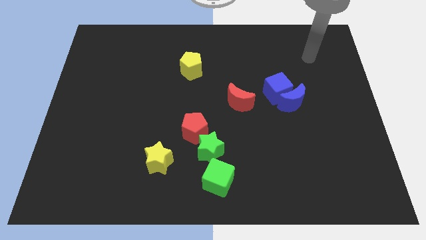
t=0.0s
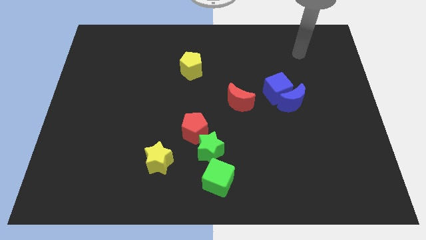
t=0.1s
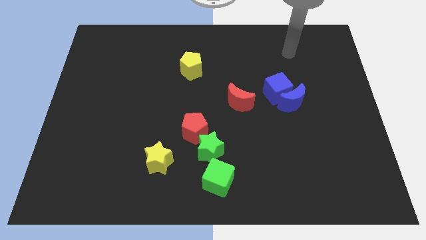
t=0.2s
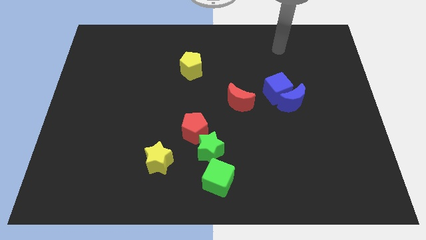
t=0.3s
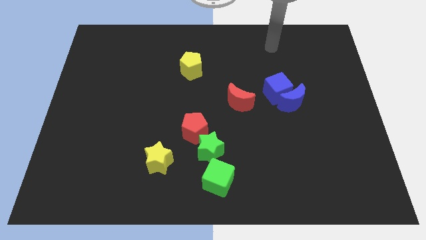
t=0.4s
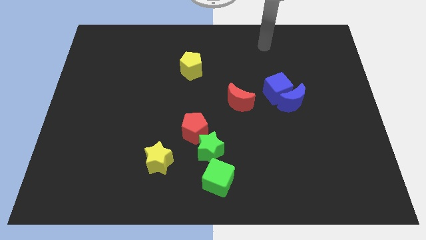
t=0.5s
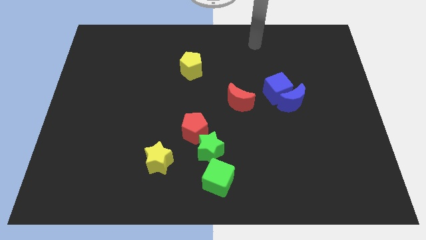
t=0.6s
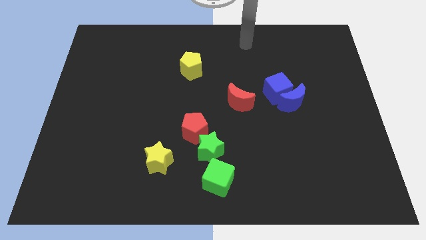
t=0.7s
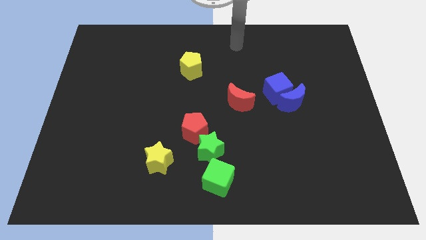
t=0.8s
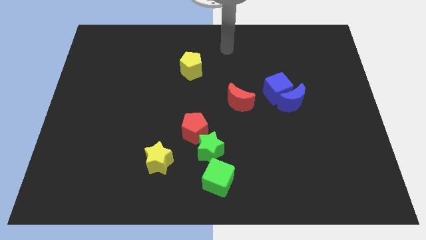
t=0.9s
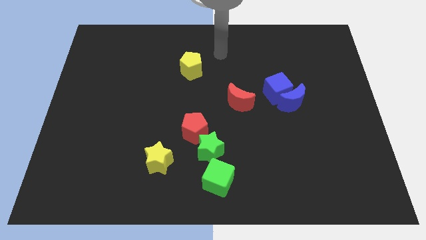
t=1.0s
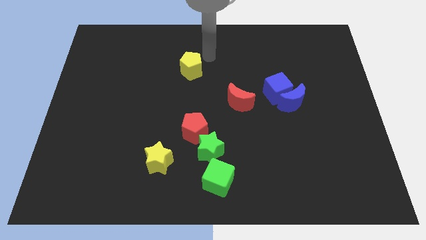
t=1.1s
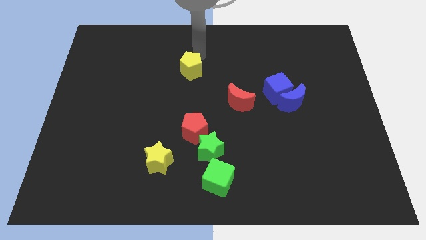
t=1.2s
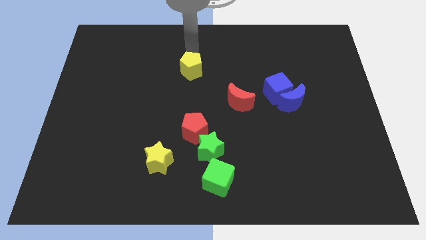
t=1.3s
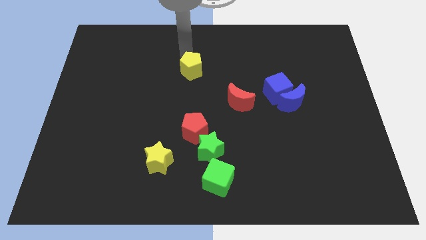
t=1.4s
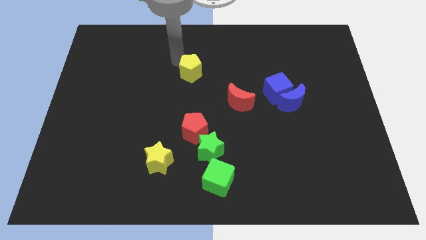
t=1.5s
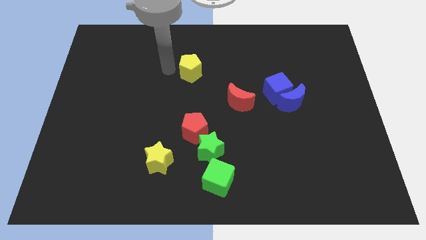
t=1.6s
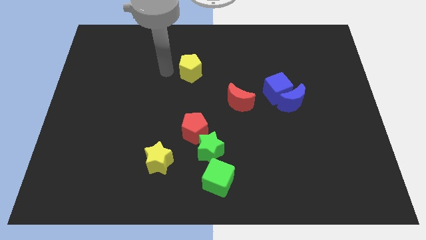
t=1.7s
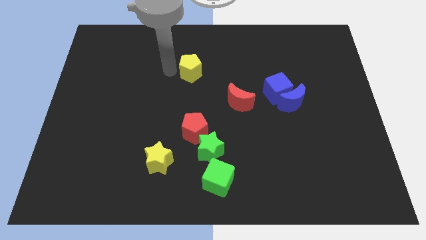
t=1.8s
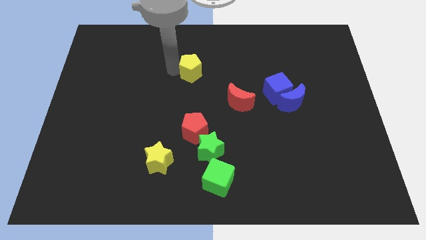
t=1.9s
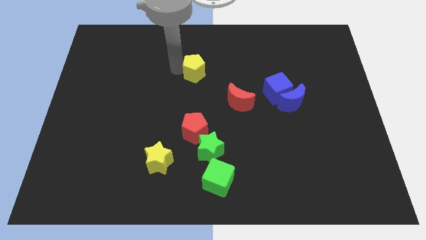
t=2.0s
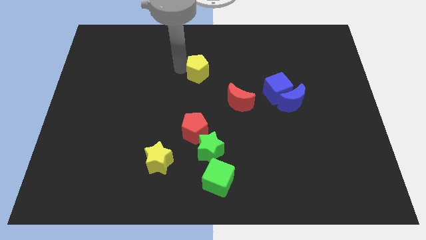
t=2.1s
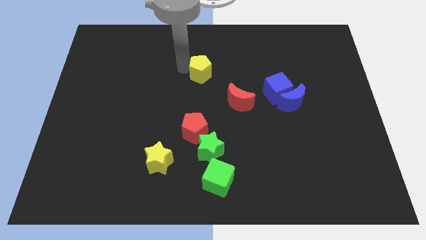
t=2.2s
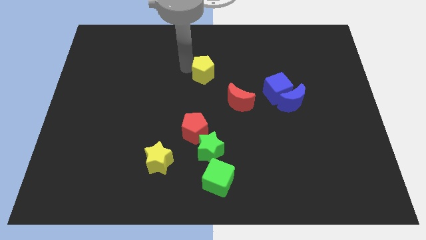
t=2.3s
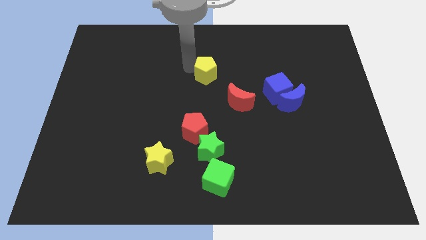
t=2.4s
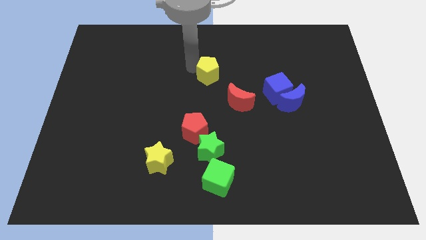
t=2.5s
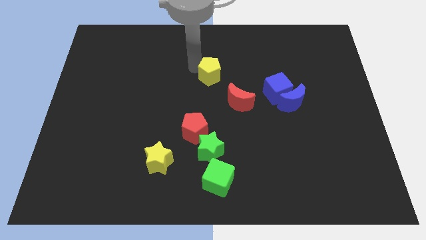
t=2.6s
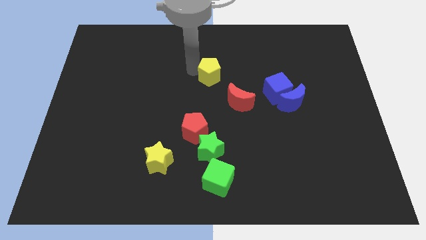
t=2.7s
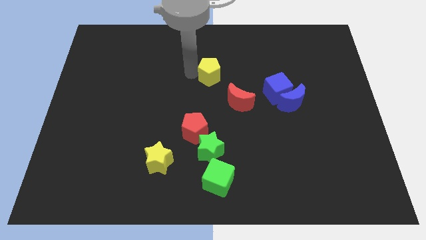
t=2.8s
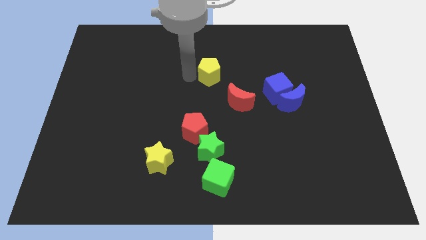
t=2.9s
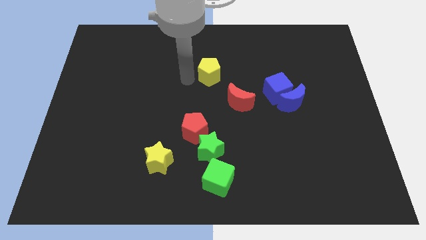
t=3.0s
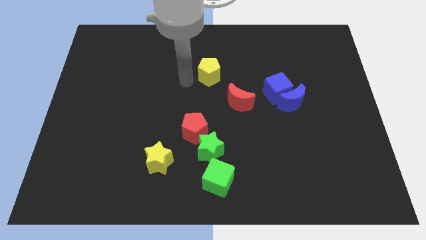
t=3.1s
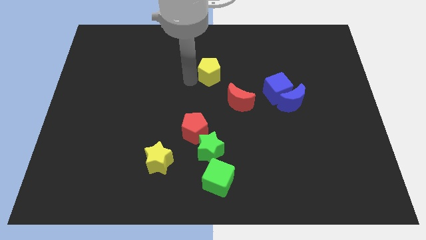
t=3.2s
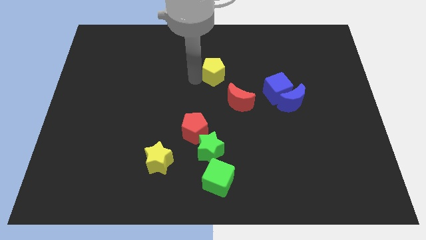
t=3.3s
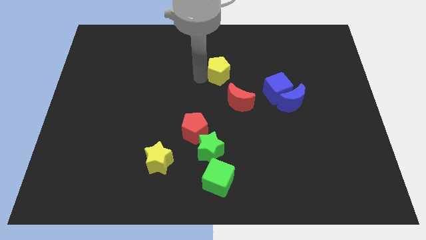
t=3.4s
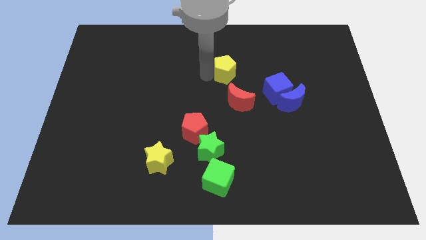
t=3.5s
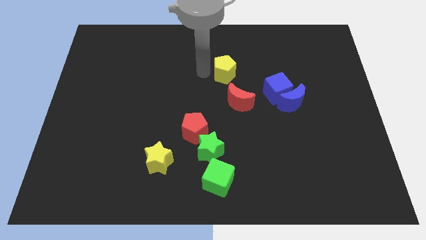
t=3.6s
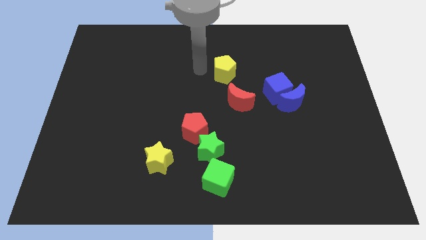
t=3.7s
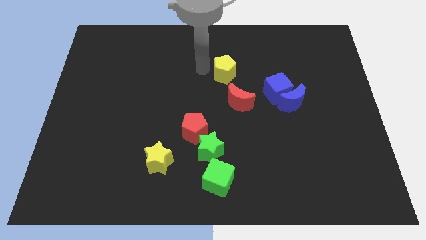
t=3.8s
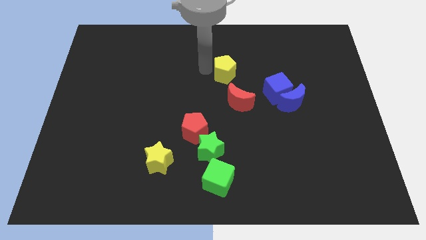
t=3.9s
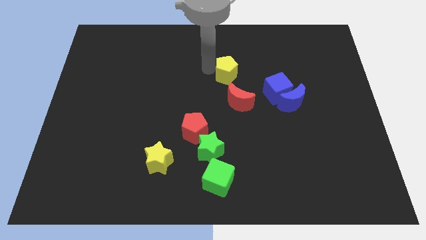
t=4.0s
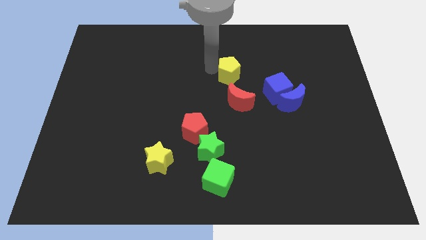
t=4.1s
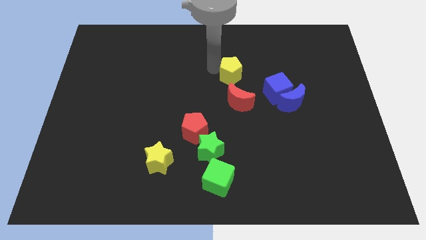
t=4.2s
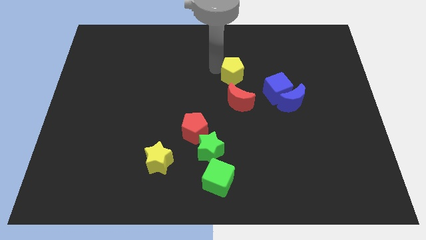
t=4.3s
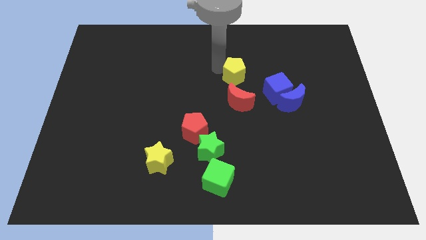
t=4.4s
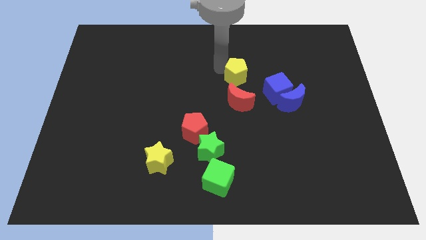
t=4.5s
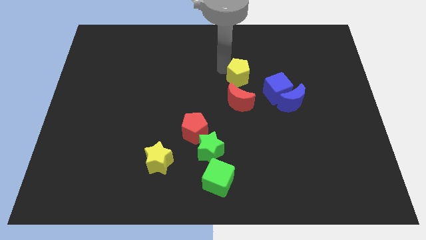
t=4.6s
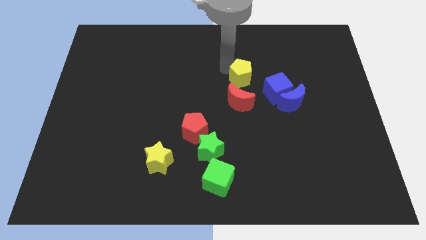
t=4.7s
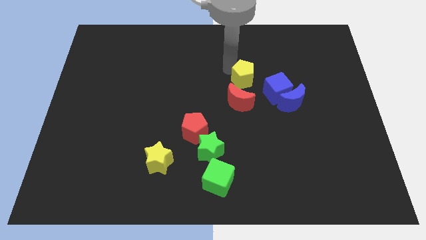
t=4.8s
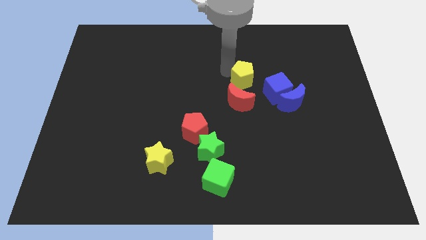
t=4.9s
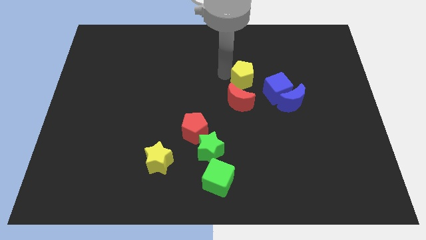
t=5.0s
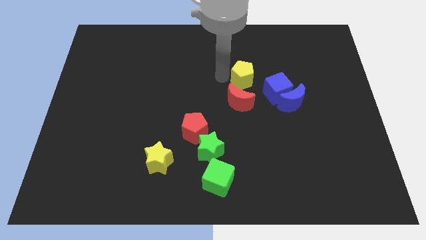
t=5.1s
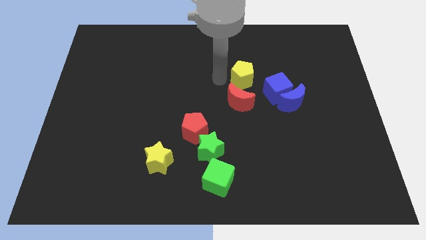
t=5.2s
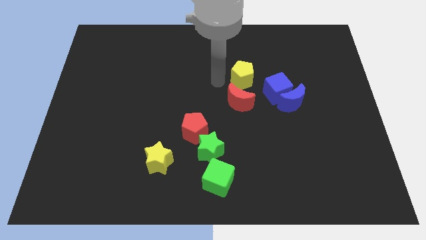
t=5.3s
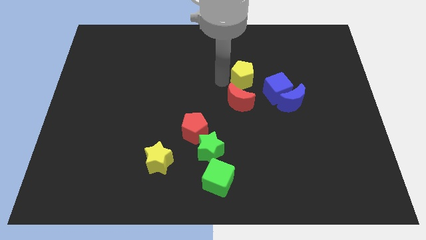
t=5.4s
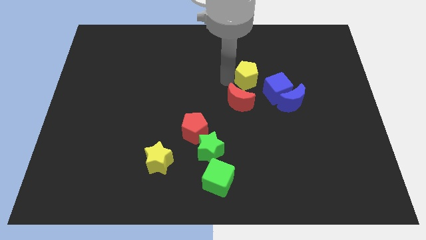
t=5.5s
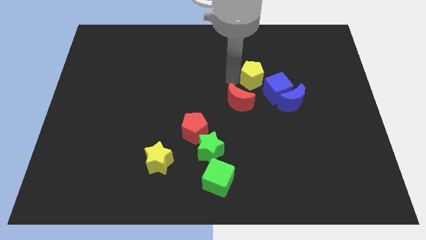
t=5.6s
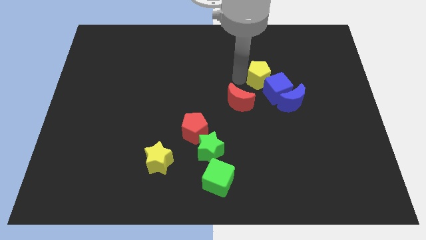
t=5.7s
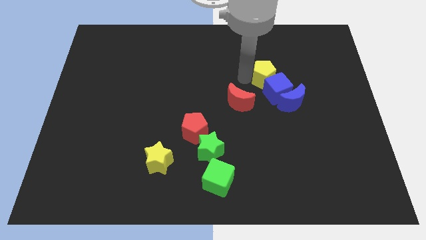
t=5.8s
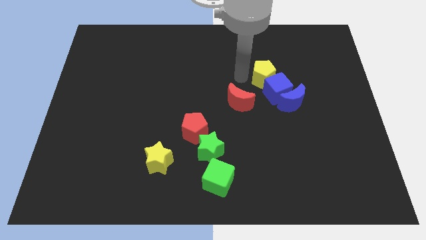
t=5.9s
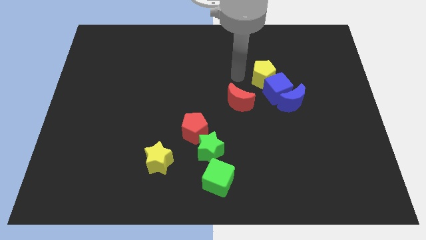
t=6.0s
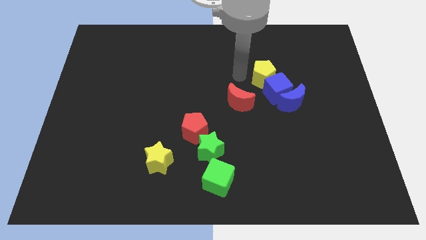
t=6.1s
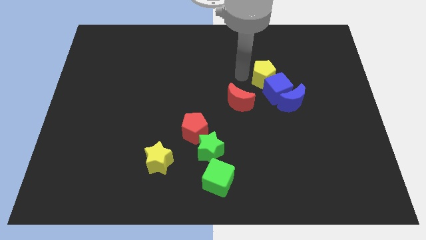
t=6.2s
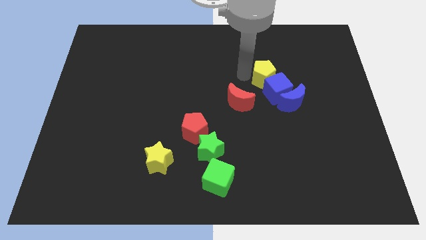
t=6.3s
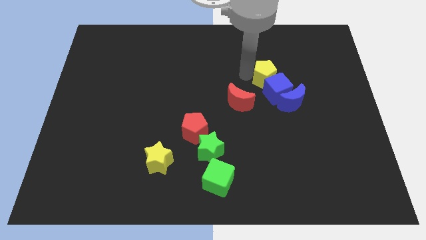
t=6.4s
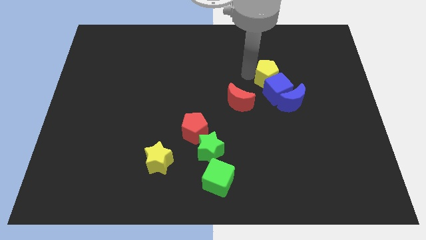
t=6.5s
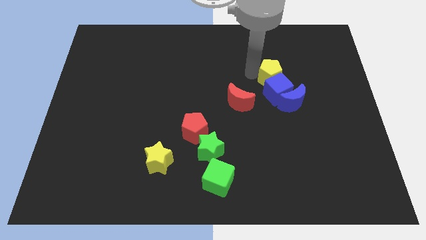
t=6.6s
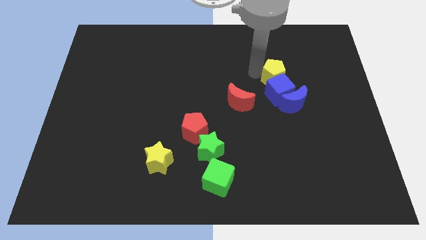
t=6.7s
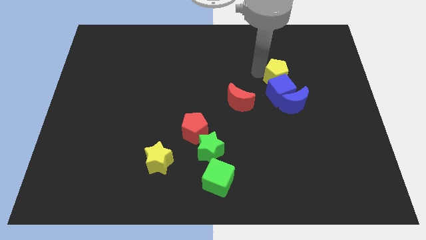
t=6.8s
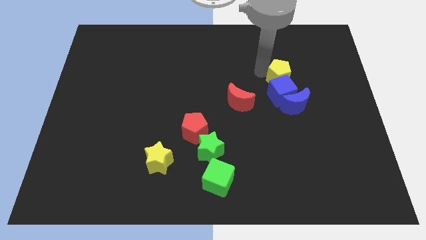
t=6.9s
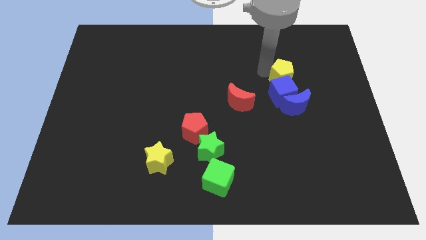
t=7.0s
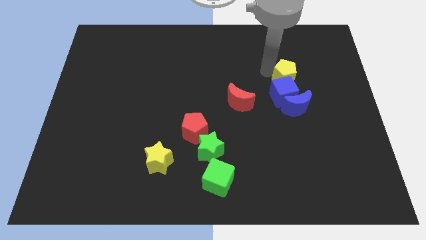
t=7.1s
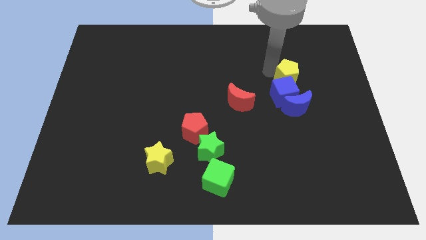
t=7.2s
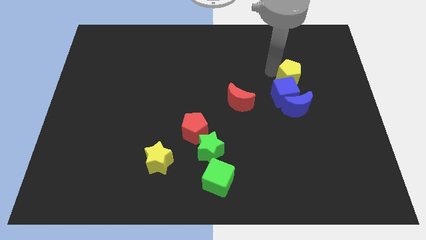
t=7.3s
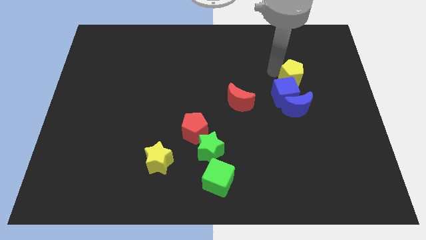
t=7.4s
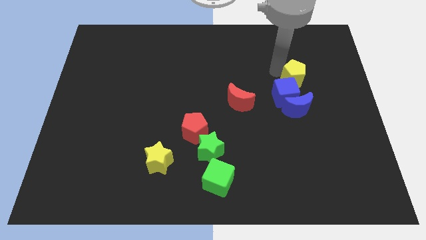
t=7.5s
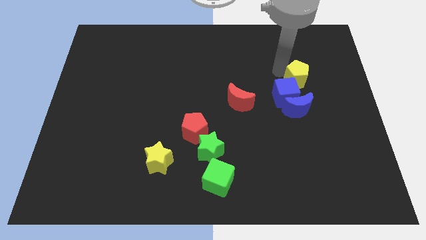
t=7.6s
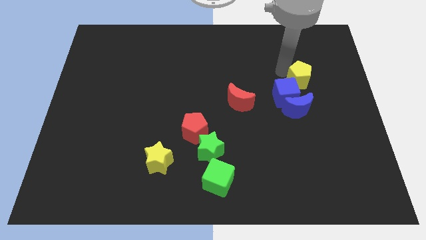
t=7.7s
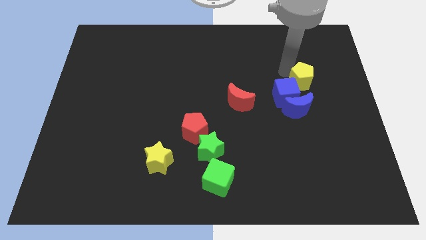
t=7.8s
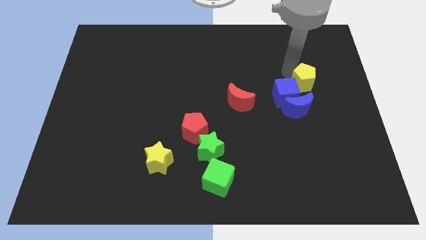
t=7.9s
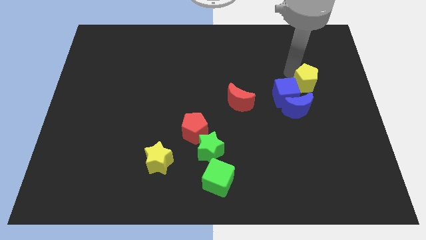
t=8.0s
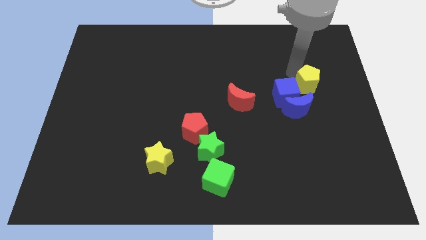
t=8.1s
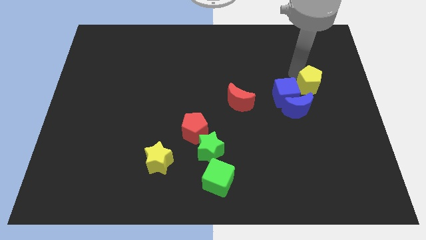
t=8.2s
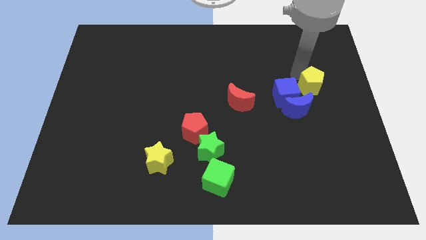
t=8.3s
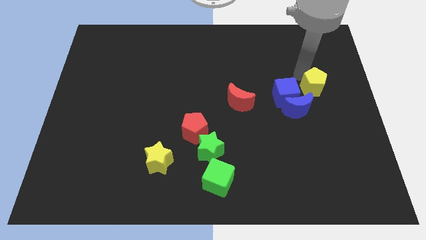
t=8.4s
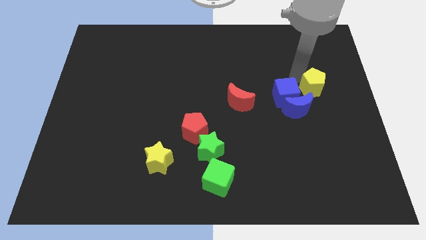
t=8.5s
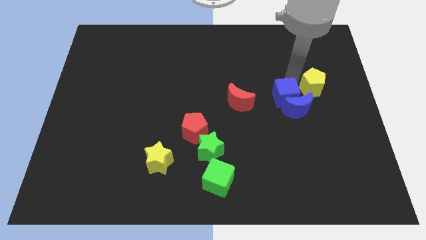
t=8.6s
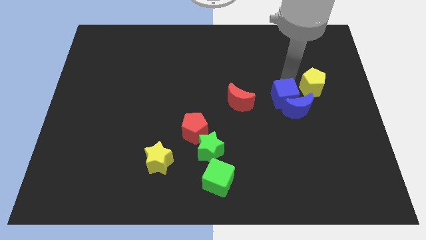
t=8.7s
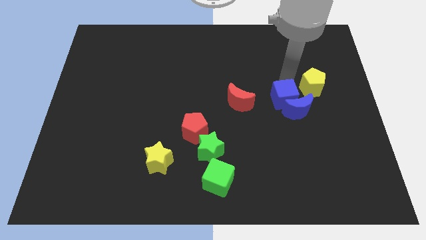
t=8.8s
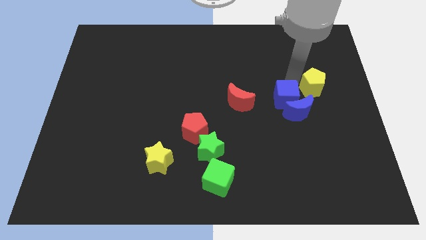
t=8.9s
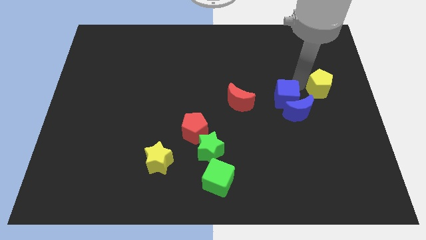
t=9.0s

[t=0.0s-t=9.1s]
push the yellow pentagon to the right side of the board
